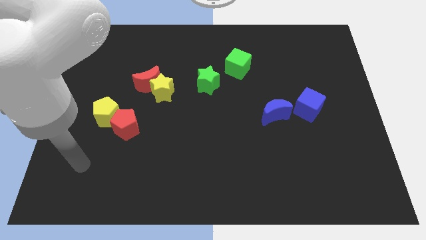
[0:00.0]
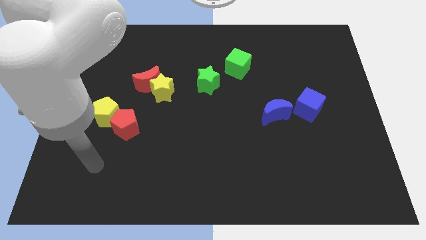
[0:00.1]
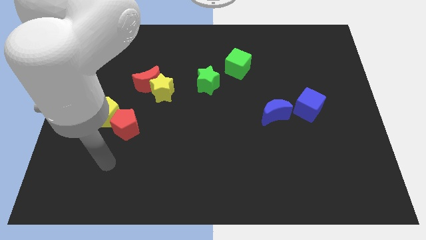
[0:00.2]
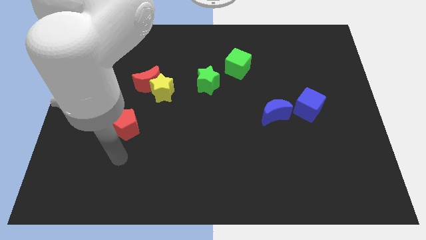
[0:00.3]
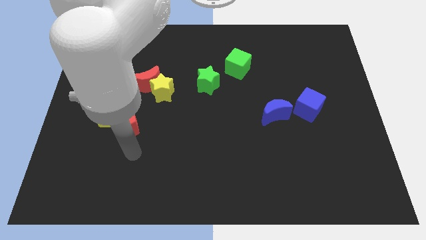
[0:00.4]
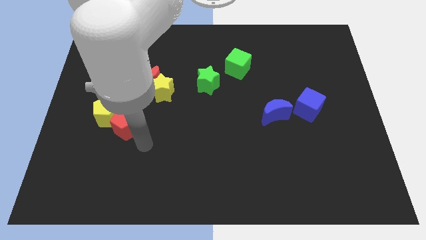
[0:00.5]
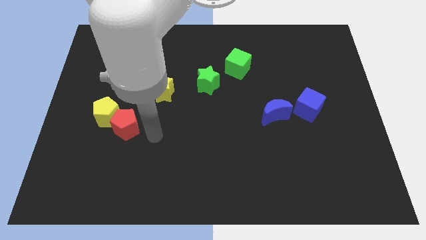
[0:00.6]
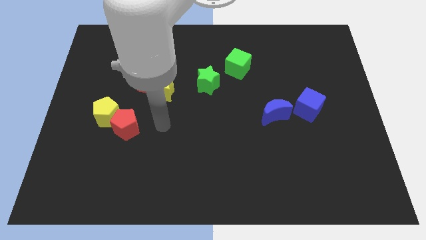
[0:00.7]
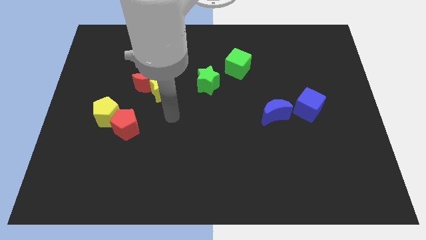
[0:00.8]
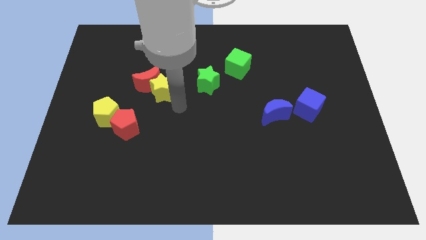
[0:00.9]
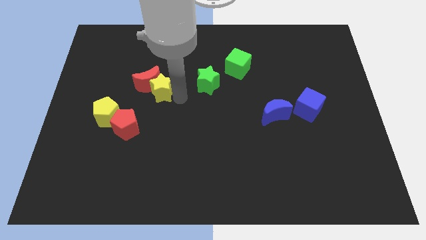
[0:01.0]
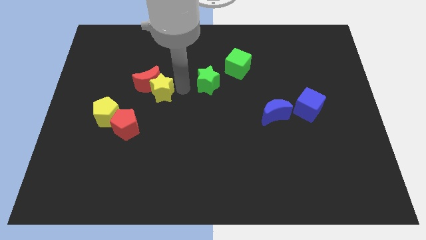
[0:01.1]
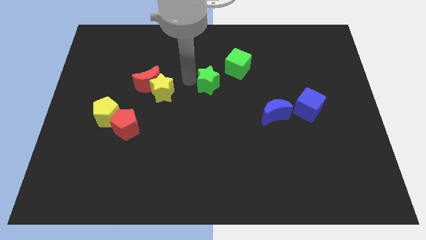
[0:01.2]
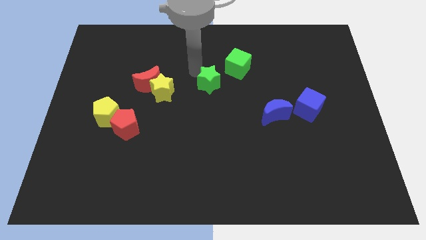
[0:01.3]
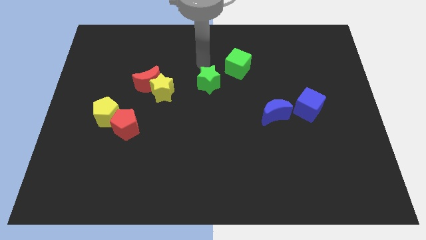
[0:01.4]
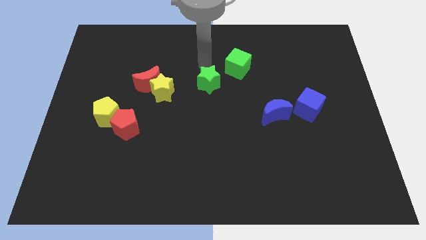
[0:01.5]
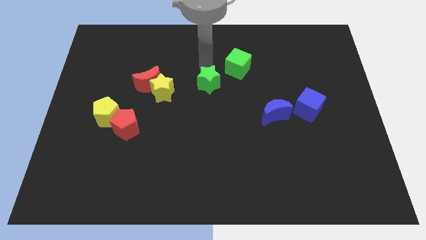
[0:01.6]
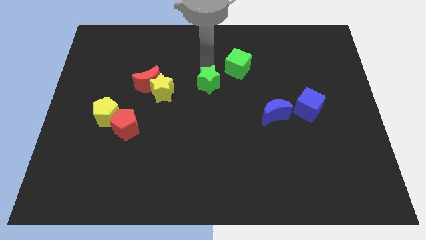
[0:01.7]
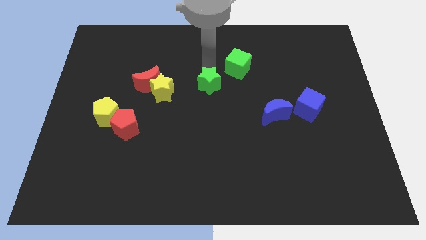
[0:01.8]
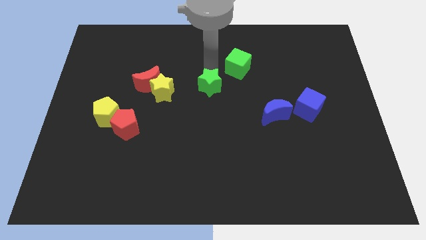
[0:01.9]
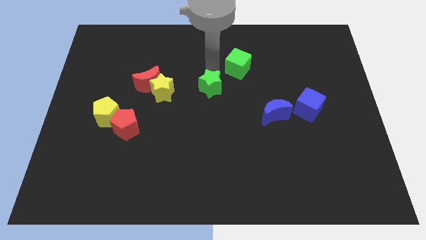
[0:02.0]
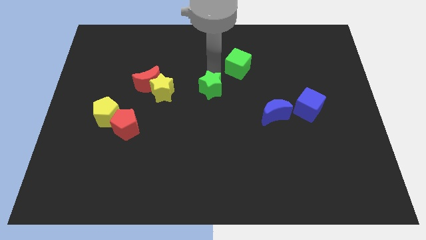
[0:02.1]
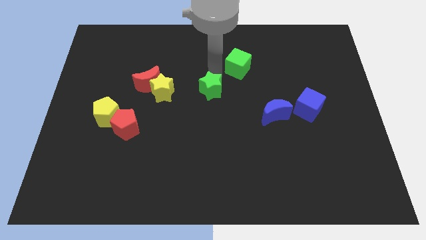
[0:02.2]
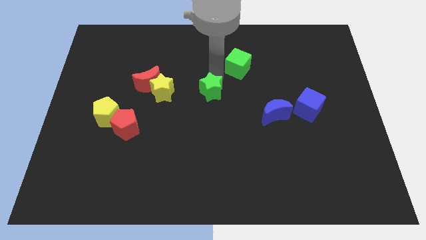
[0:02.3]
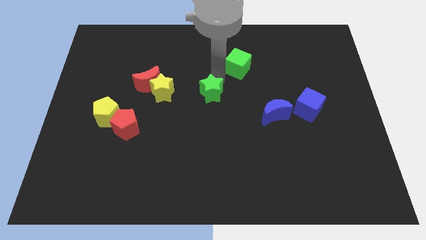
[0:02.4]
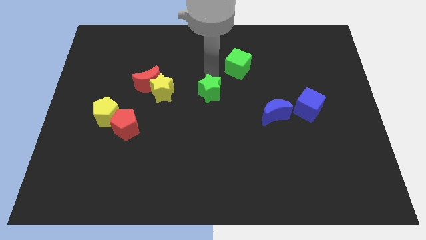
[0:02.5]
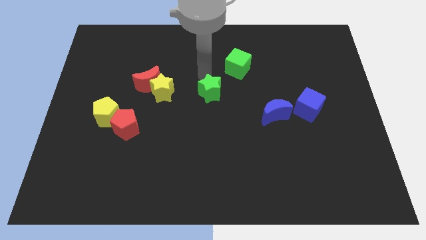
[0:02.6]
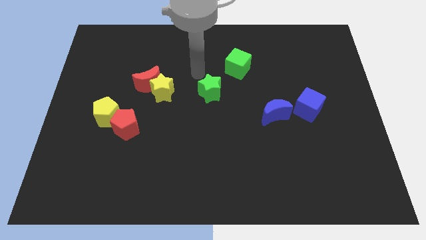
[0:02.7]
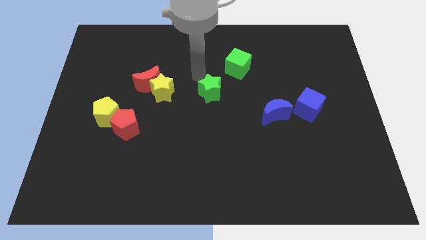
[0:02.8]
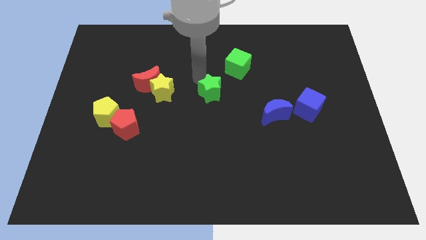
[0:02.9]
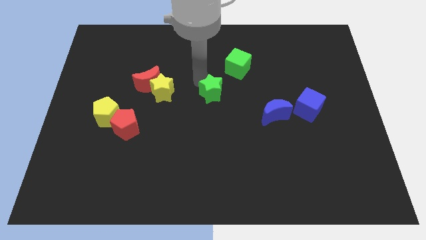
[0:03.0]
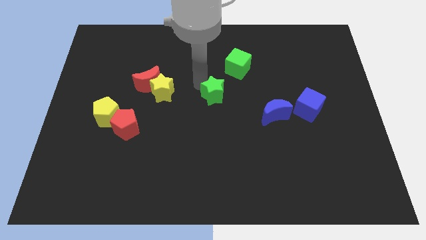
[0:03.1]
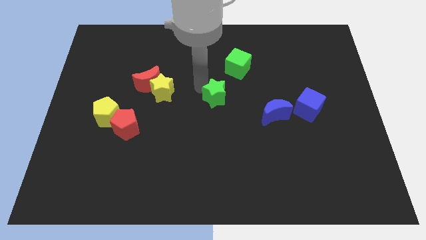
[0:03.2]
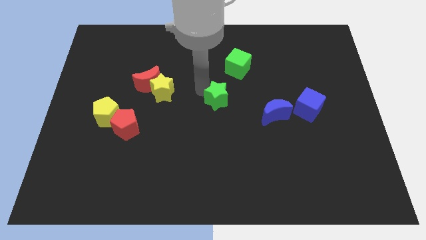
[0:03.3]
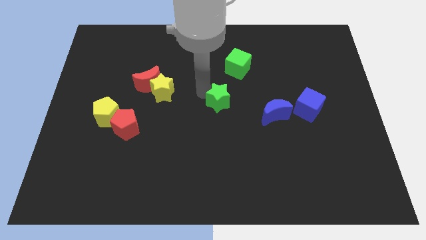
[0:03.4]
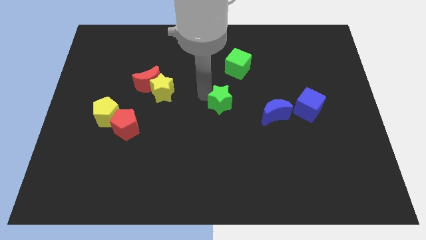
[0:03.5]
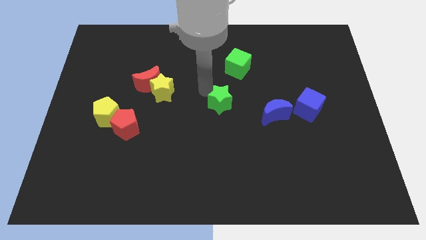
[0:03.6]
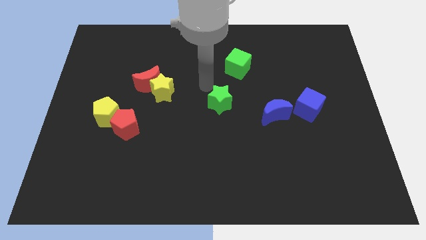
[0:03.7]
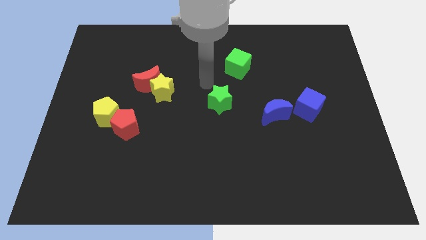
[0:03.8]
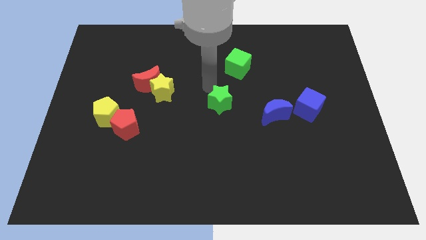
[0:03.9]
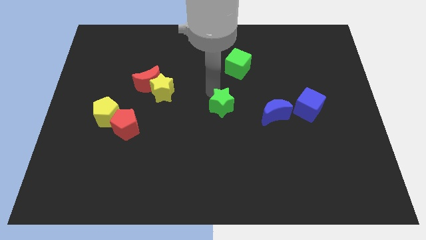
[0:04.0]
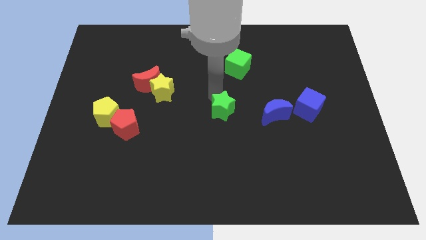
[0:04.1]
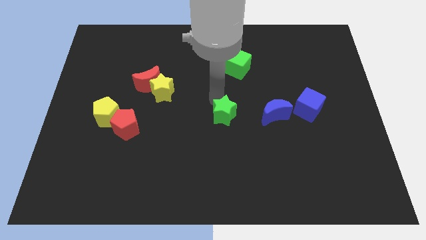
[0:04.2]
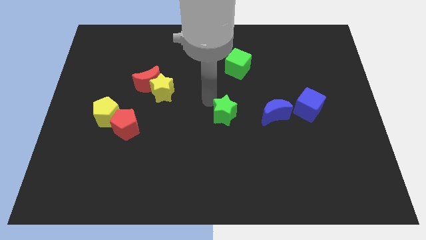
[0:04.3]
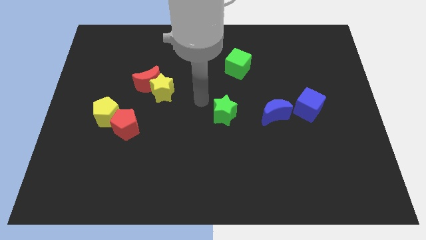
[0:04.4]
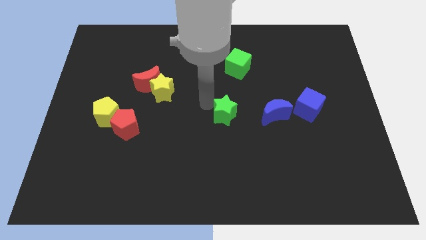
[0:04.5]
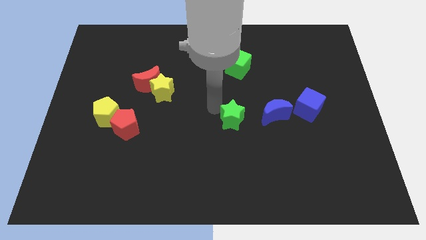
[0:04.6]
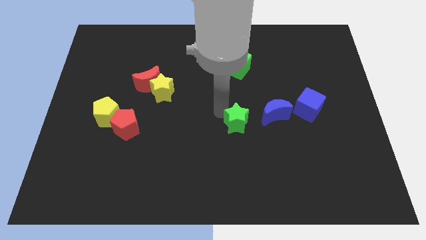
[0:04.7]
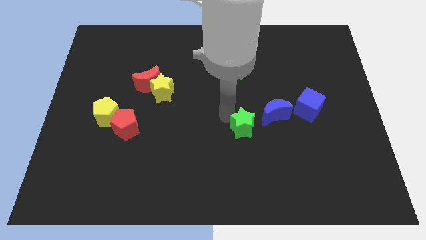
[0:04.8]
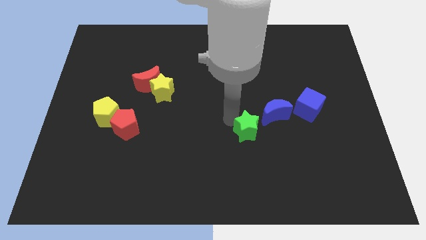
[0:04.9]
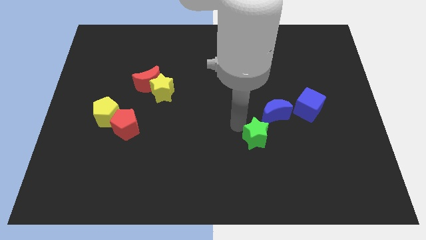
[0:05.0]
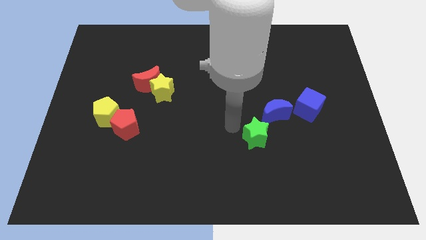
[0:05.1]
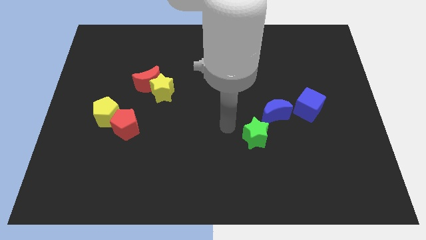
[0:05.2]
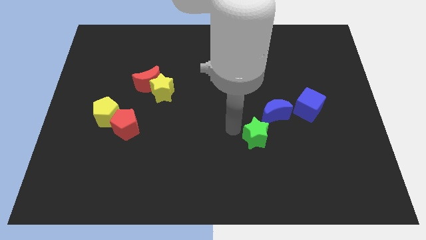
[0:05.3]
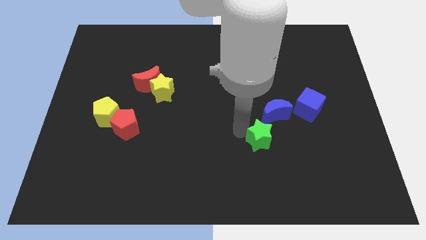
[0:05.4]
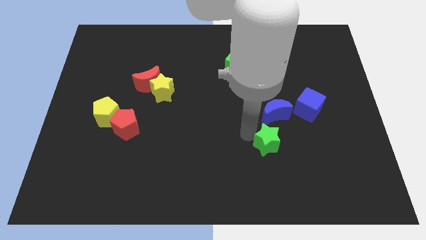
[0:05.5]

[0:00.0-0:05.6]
push the green star downwards and then to the right

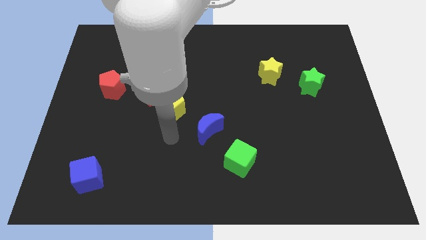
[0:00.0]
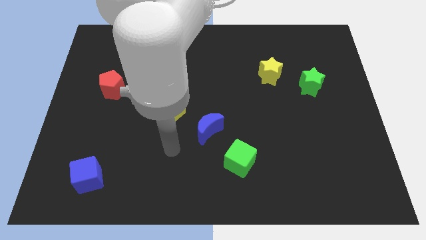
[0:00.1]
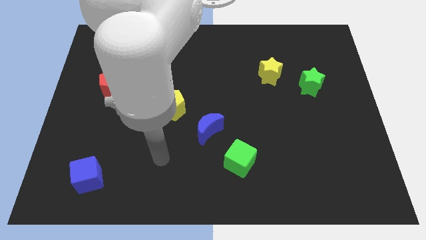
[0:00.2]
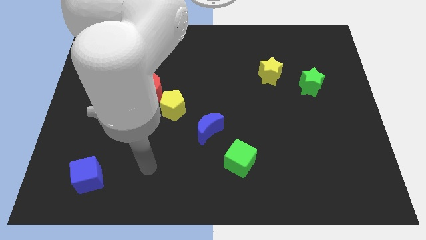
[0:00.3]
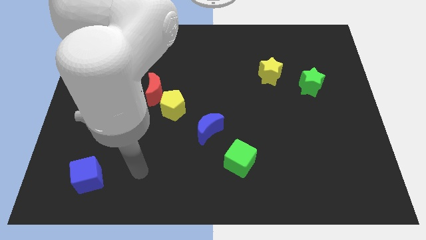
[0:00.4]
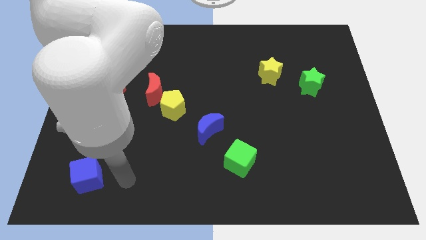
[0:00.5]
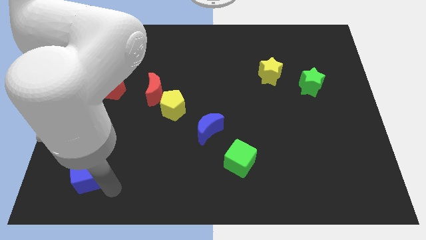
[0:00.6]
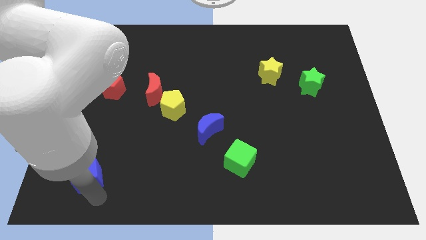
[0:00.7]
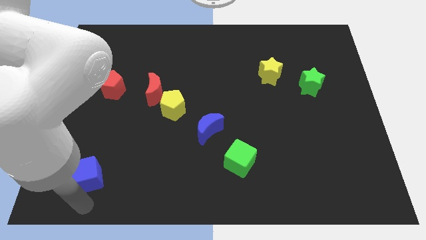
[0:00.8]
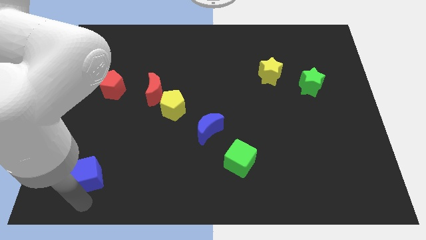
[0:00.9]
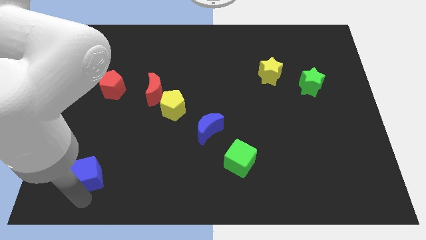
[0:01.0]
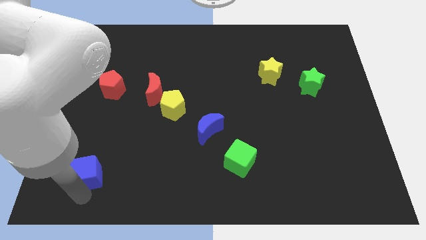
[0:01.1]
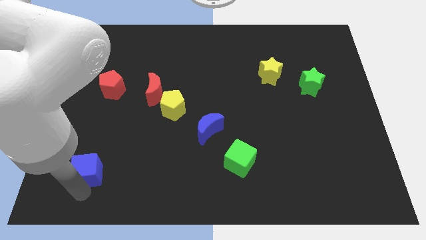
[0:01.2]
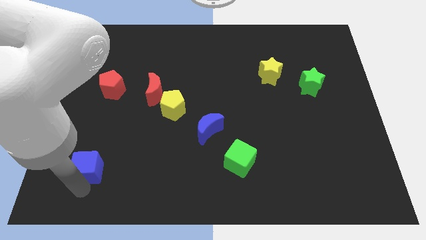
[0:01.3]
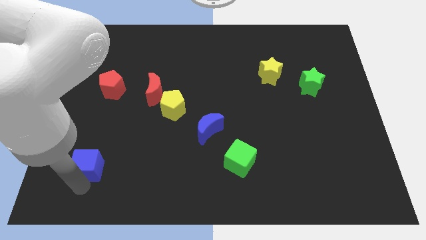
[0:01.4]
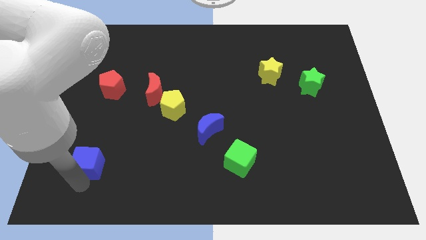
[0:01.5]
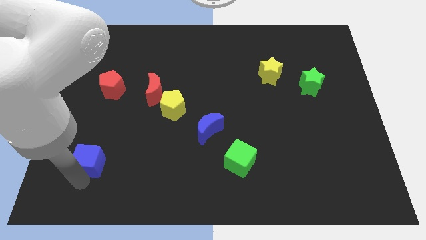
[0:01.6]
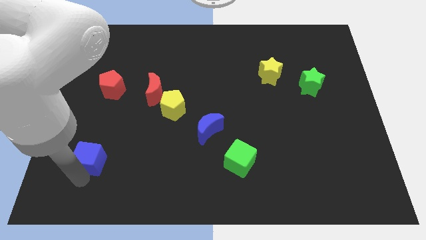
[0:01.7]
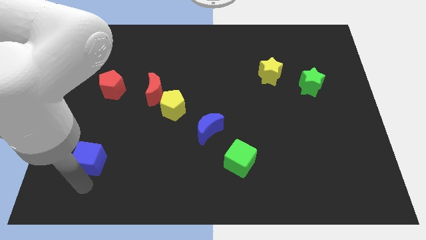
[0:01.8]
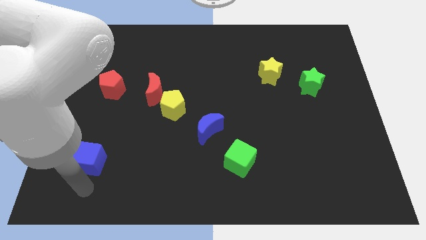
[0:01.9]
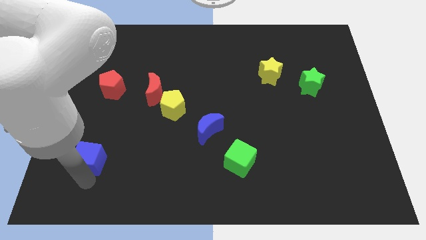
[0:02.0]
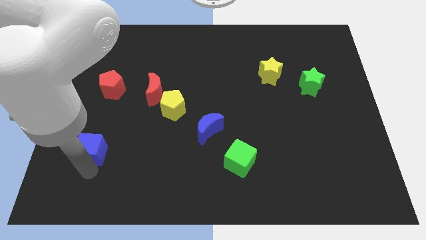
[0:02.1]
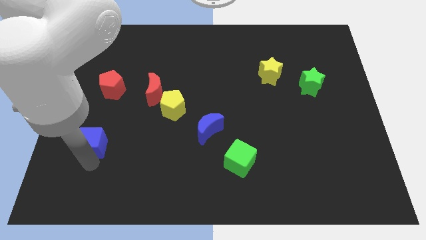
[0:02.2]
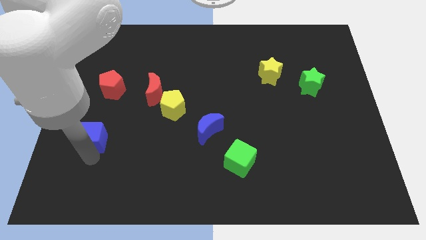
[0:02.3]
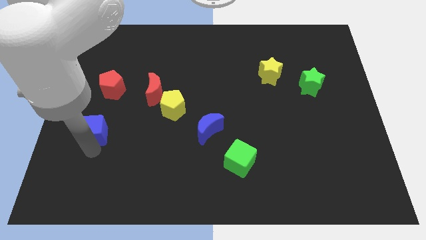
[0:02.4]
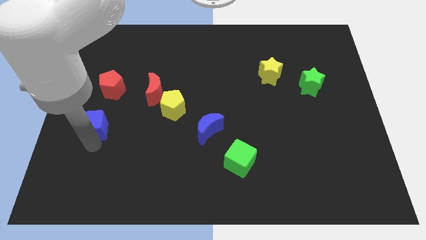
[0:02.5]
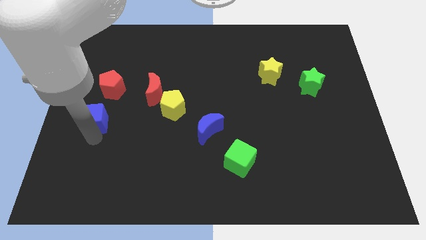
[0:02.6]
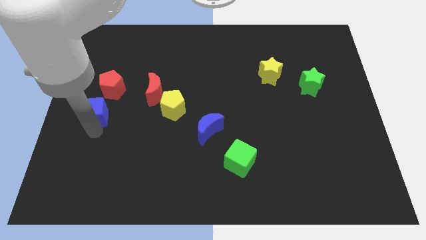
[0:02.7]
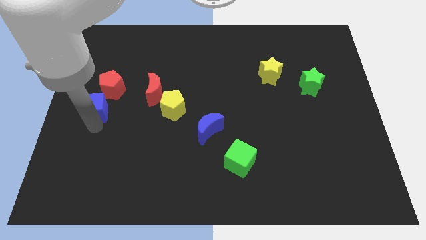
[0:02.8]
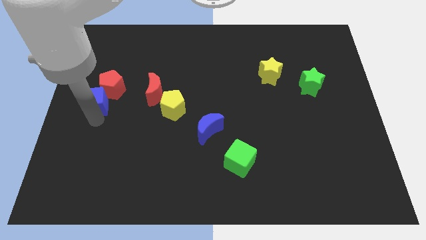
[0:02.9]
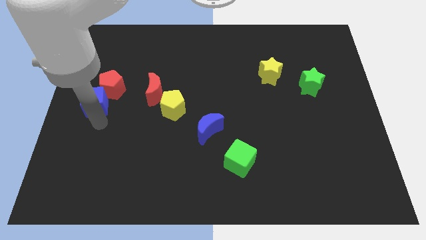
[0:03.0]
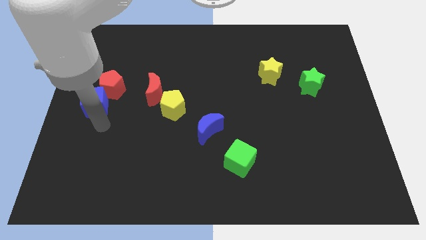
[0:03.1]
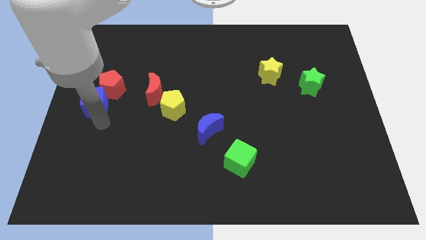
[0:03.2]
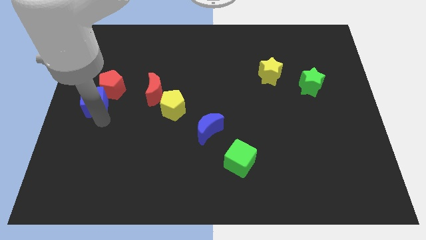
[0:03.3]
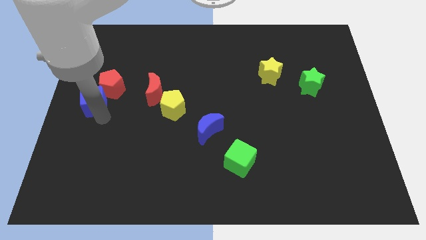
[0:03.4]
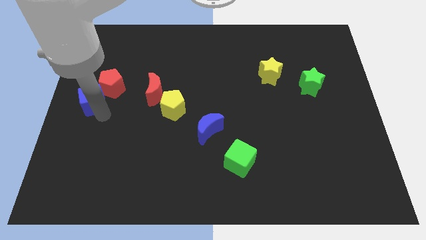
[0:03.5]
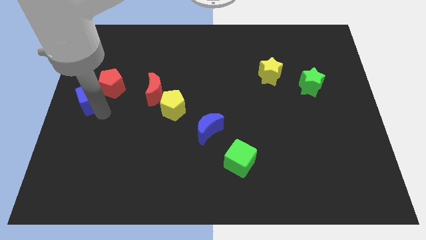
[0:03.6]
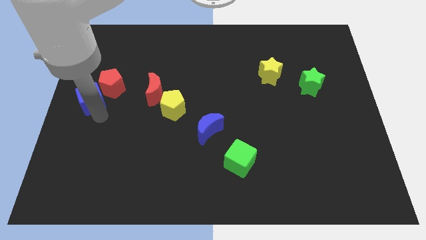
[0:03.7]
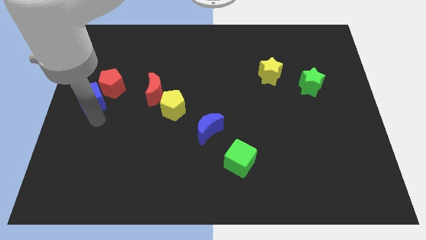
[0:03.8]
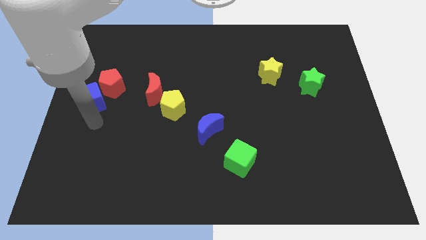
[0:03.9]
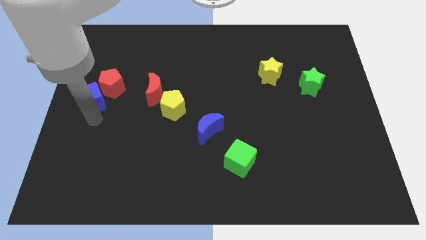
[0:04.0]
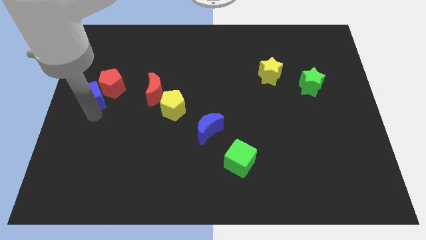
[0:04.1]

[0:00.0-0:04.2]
slide the blue cube up
